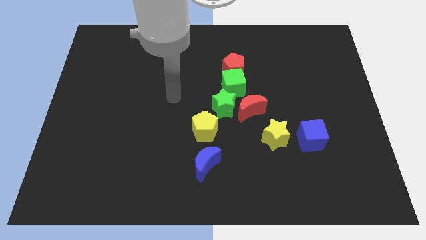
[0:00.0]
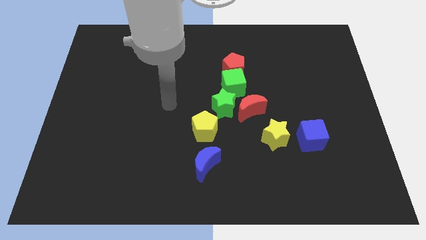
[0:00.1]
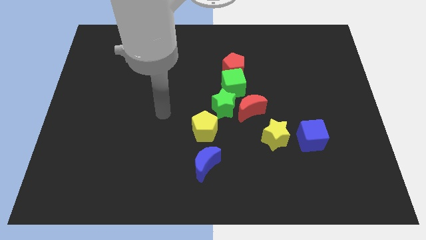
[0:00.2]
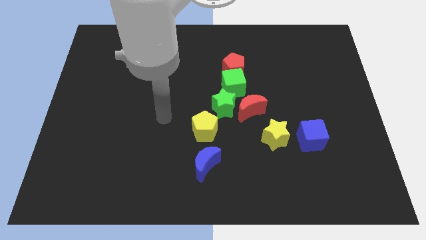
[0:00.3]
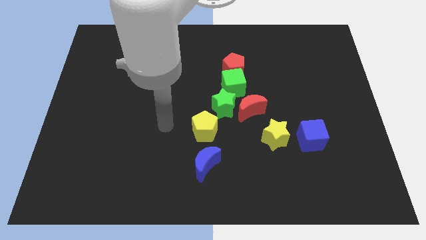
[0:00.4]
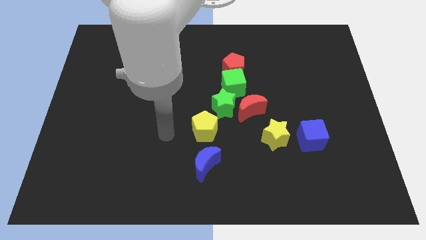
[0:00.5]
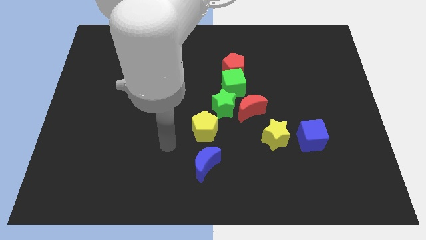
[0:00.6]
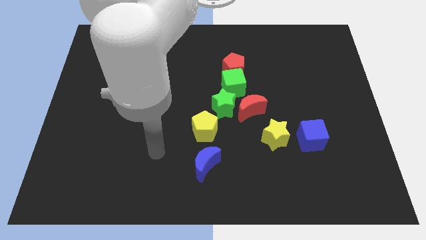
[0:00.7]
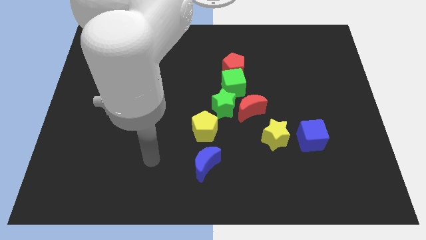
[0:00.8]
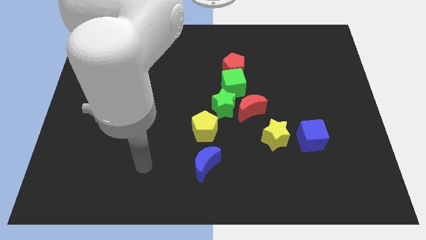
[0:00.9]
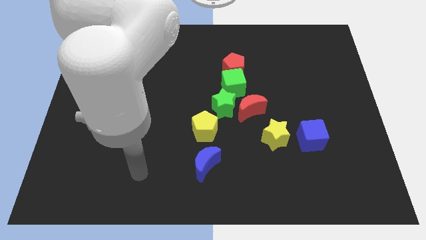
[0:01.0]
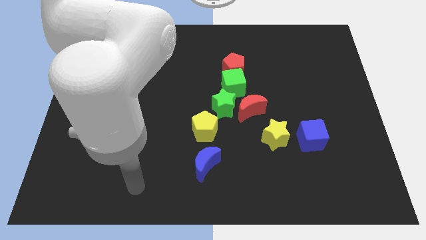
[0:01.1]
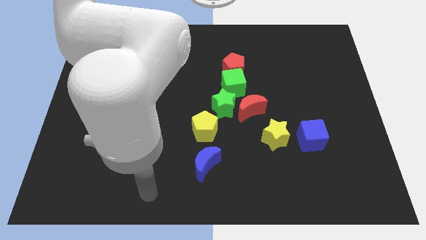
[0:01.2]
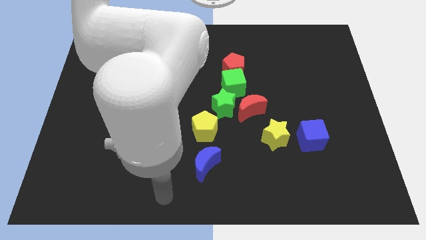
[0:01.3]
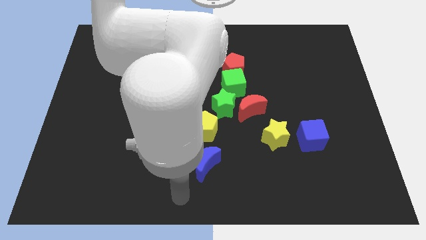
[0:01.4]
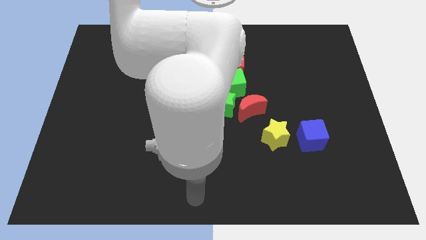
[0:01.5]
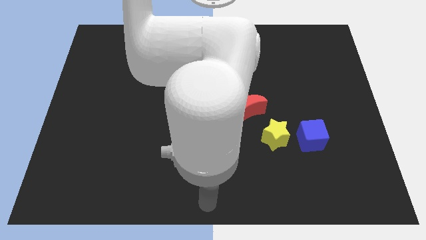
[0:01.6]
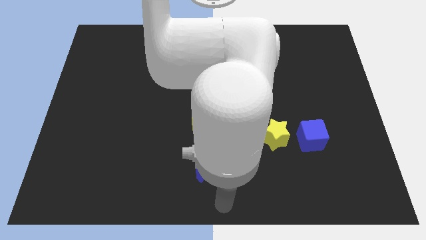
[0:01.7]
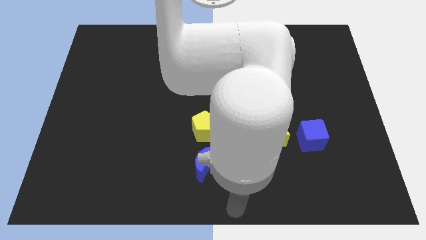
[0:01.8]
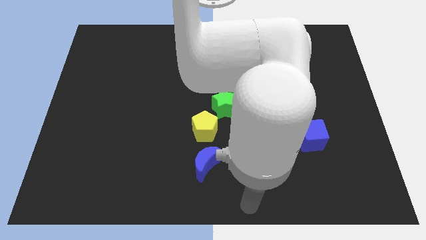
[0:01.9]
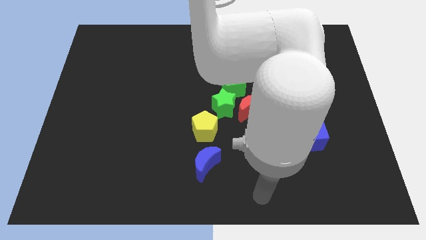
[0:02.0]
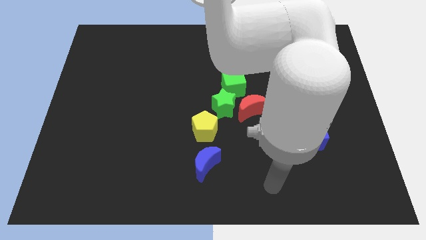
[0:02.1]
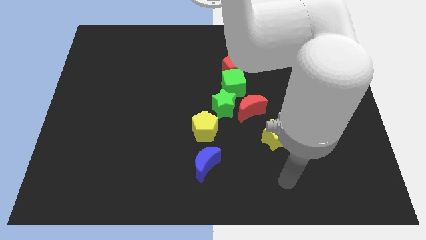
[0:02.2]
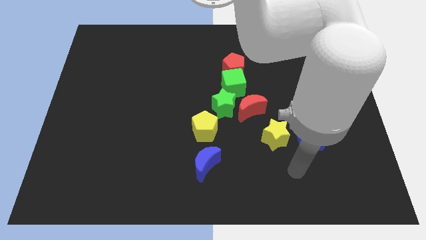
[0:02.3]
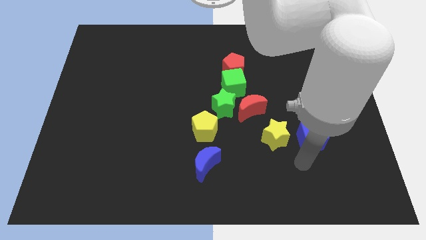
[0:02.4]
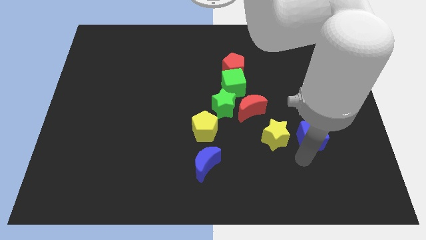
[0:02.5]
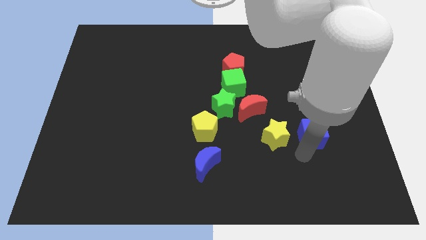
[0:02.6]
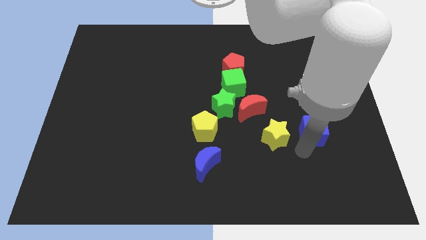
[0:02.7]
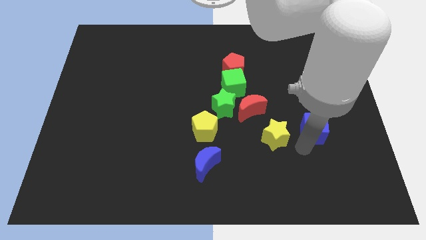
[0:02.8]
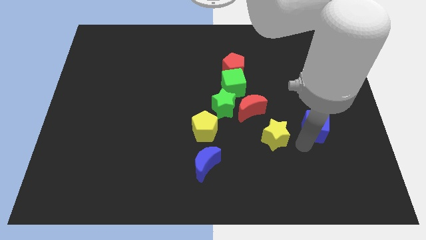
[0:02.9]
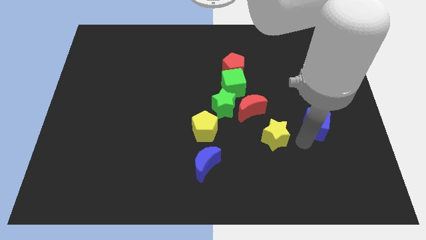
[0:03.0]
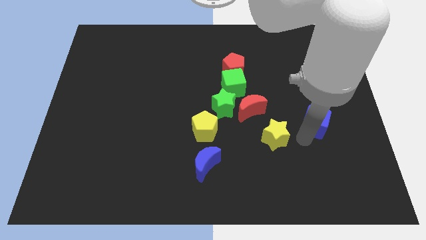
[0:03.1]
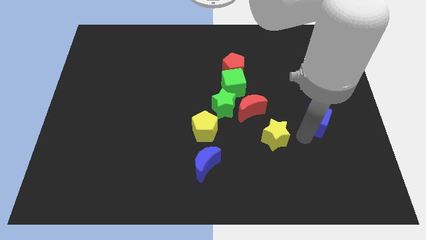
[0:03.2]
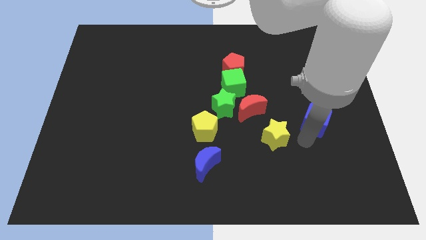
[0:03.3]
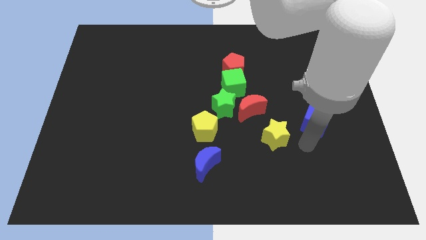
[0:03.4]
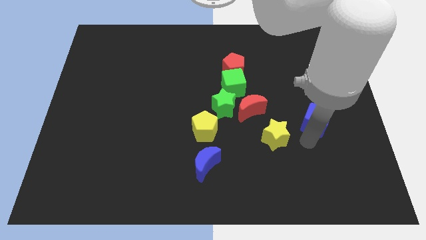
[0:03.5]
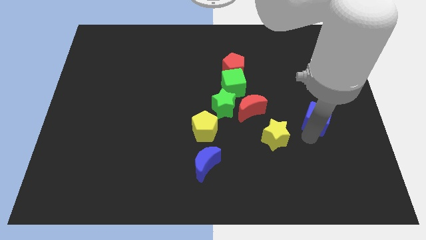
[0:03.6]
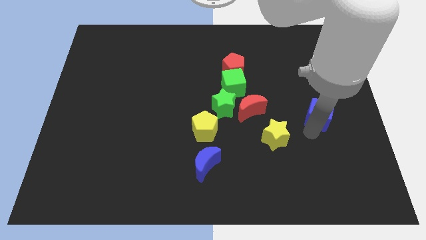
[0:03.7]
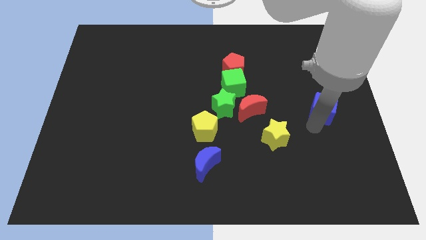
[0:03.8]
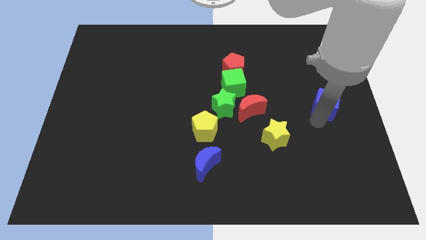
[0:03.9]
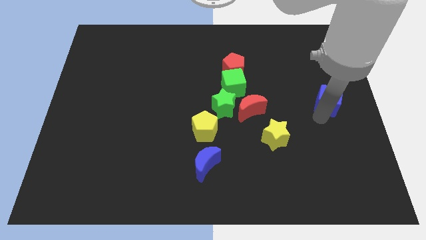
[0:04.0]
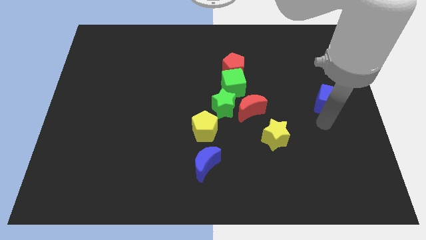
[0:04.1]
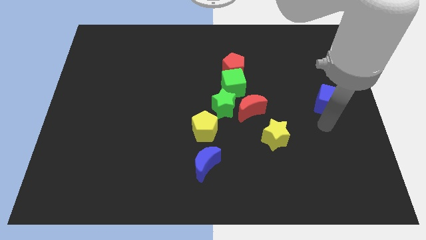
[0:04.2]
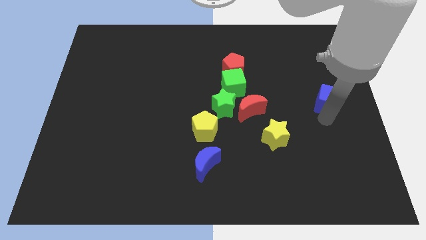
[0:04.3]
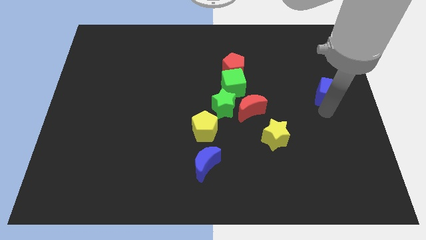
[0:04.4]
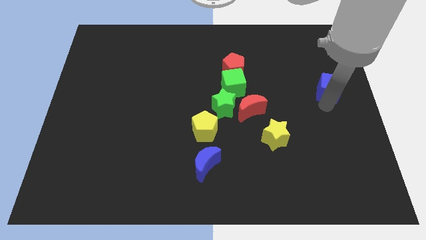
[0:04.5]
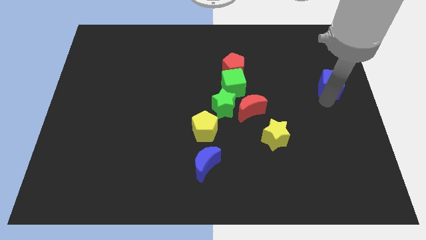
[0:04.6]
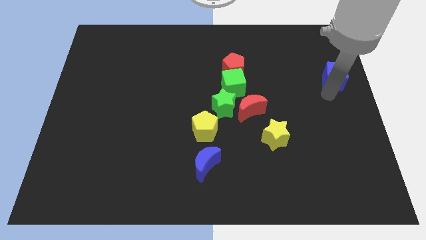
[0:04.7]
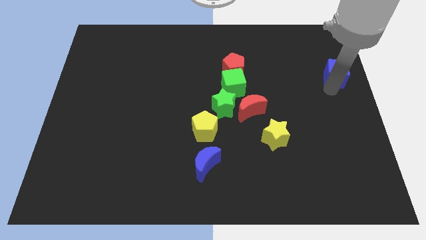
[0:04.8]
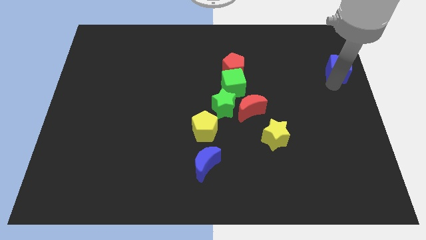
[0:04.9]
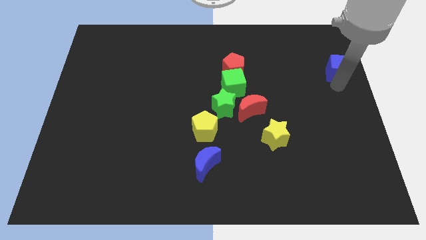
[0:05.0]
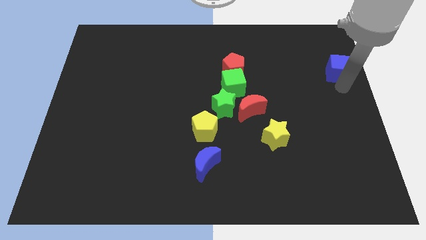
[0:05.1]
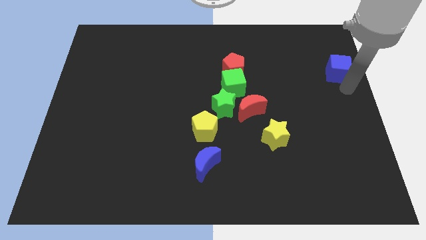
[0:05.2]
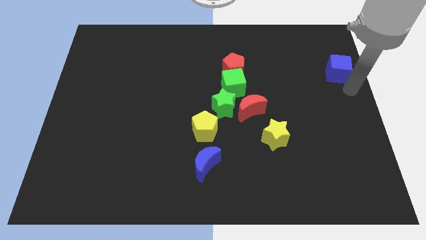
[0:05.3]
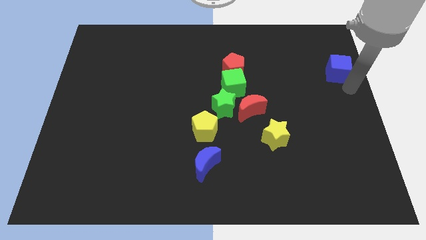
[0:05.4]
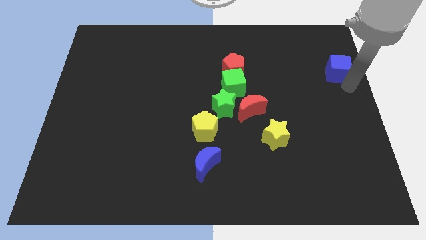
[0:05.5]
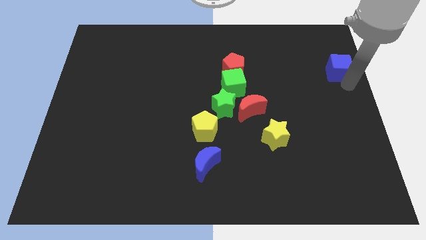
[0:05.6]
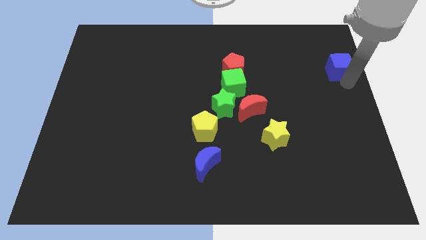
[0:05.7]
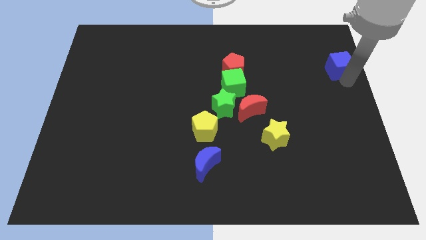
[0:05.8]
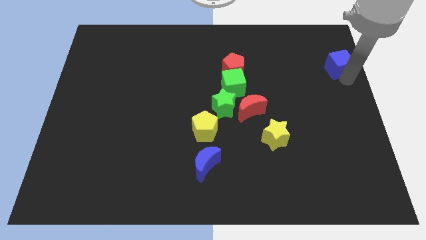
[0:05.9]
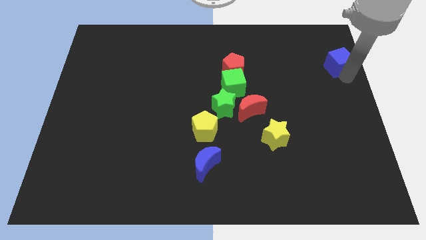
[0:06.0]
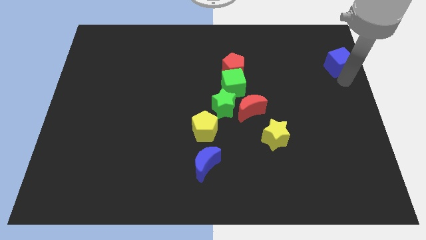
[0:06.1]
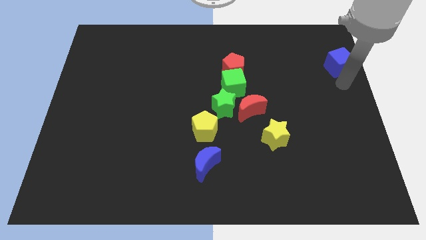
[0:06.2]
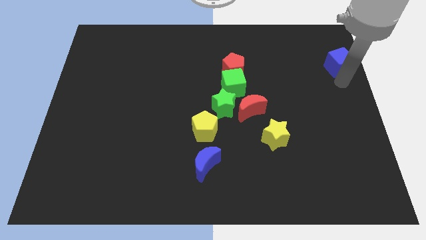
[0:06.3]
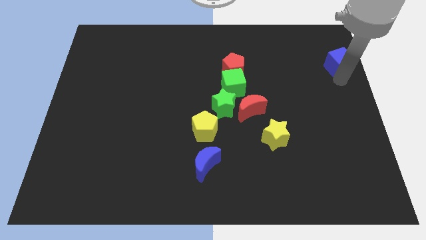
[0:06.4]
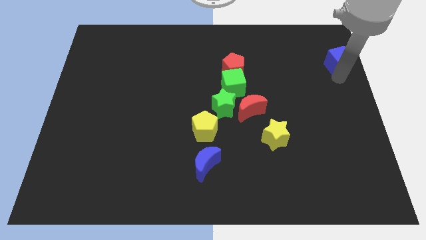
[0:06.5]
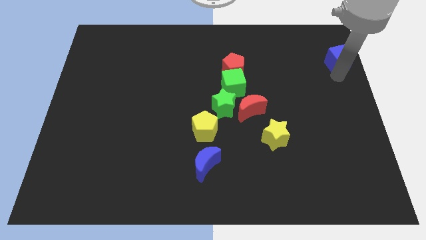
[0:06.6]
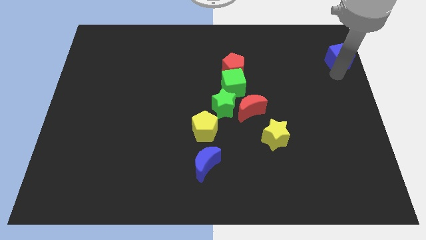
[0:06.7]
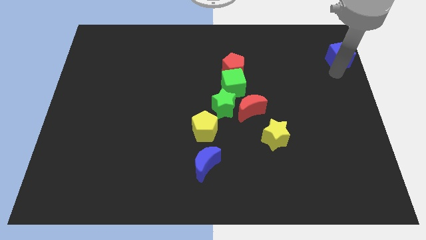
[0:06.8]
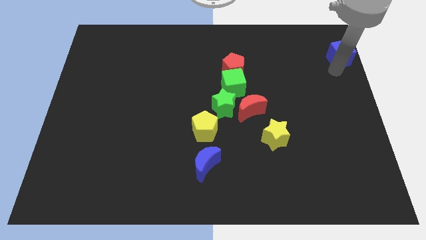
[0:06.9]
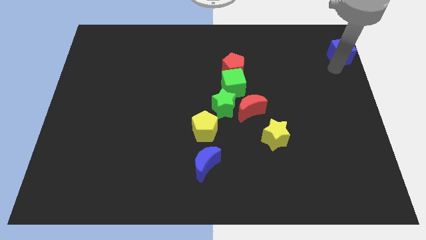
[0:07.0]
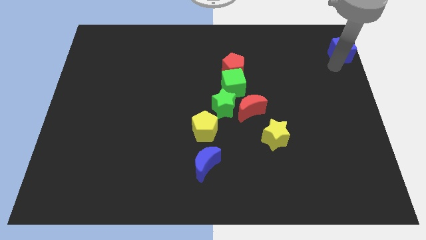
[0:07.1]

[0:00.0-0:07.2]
slide the blue cube to the top right
